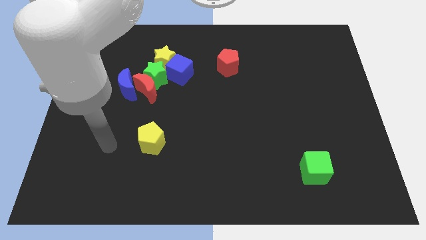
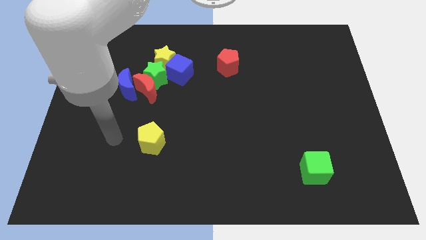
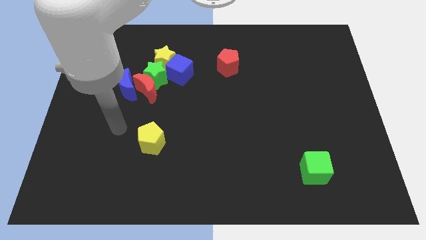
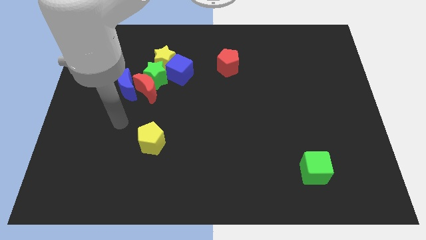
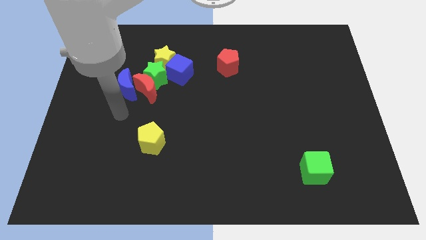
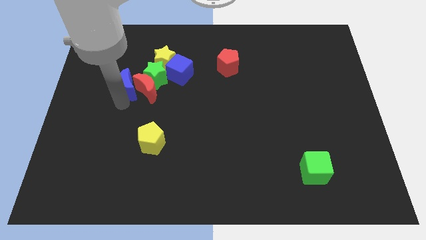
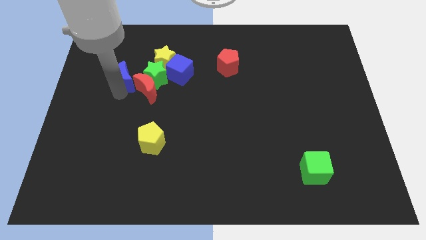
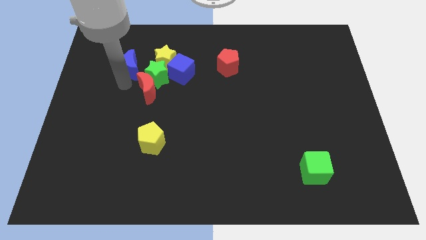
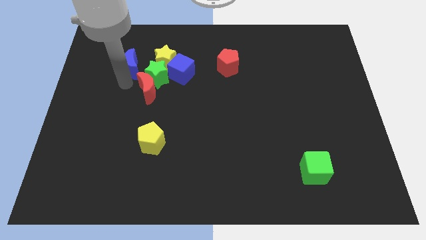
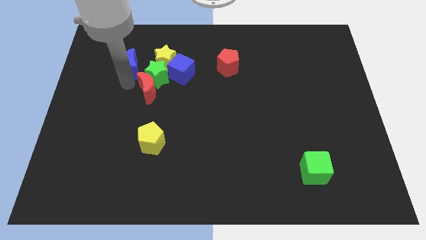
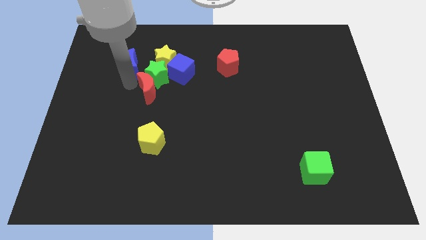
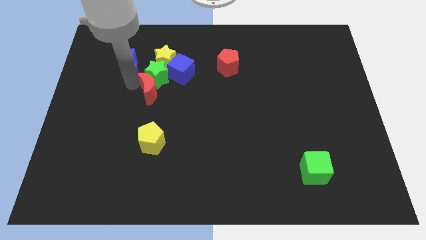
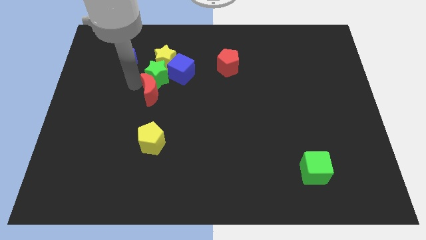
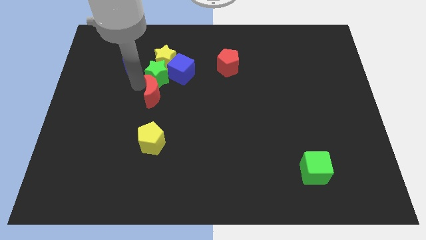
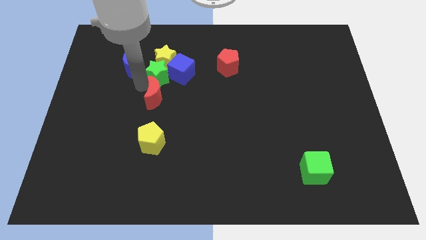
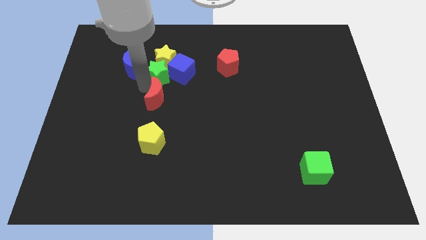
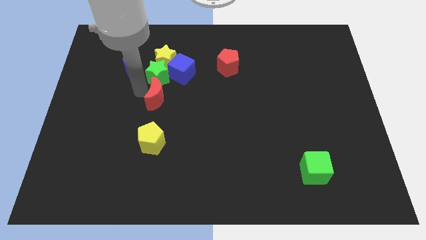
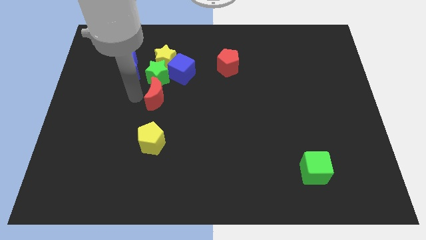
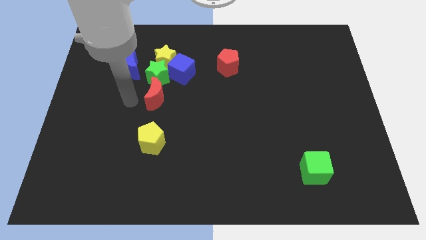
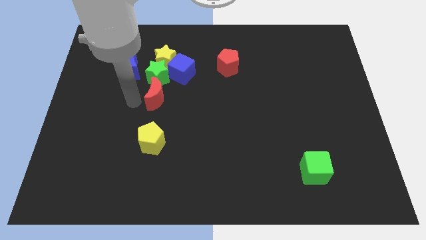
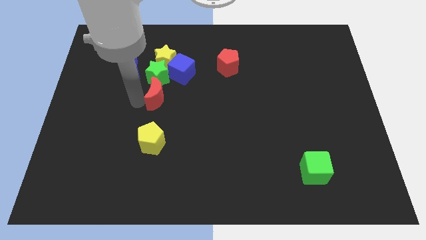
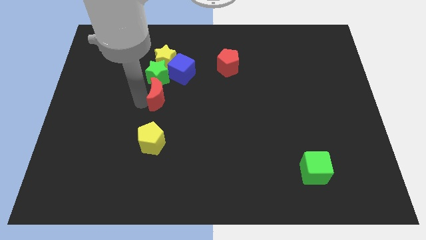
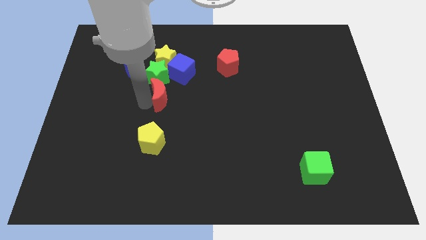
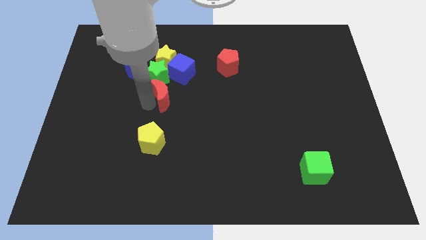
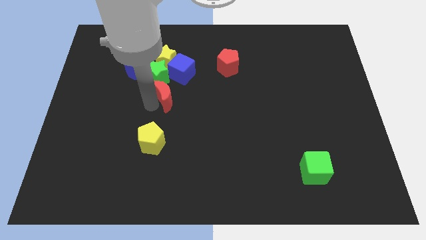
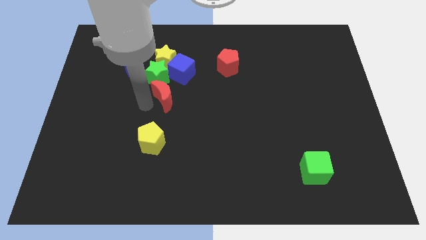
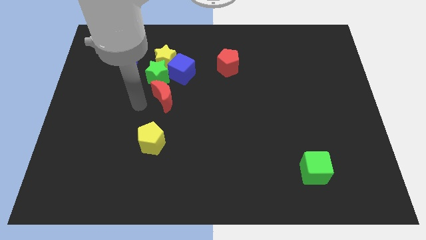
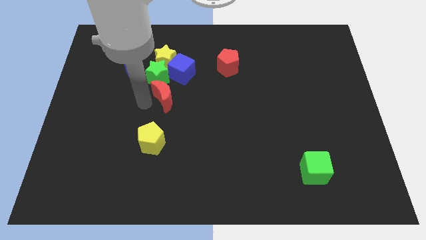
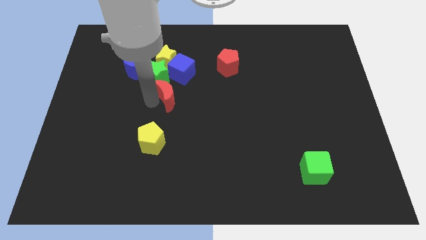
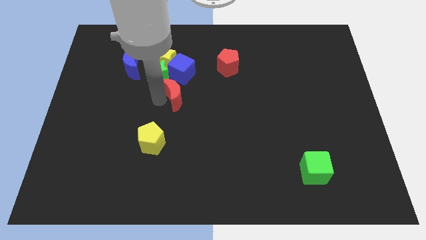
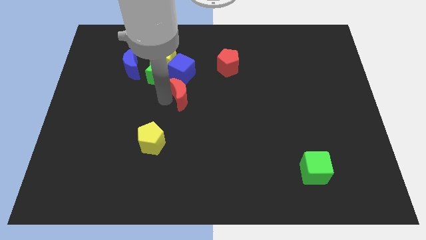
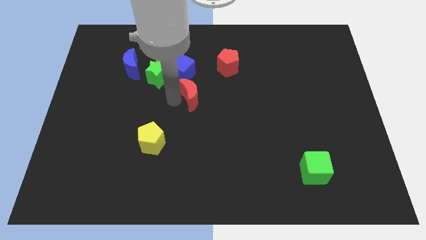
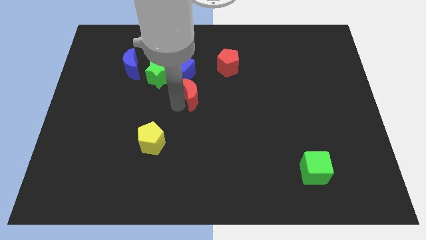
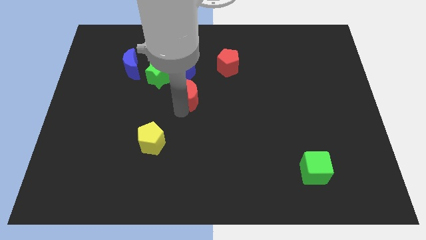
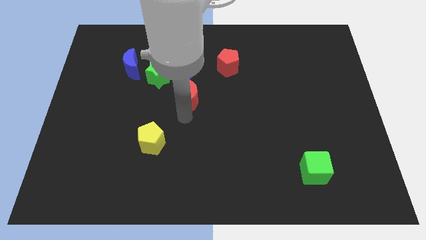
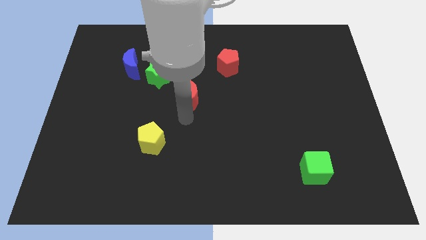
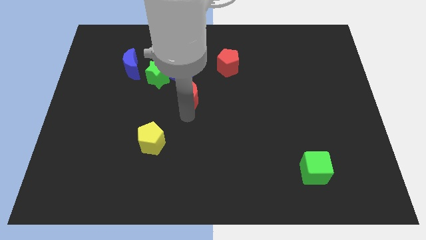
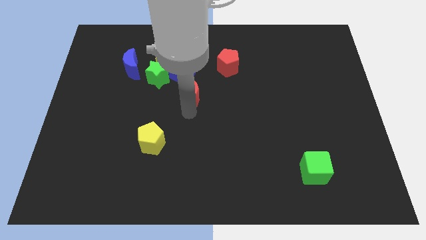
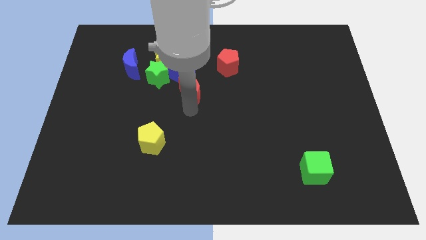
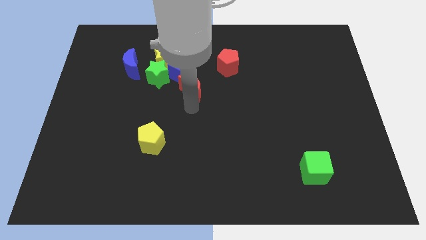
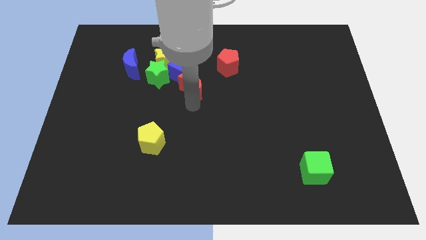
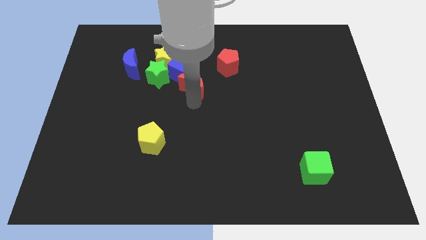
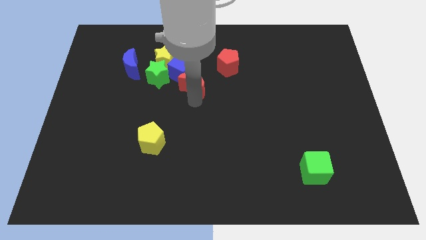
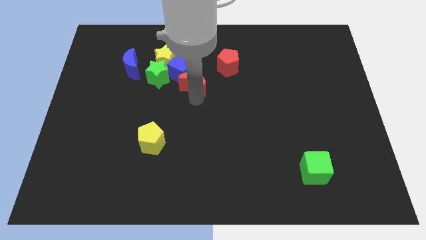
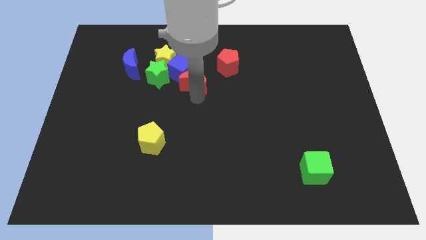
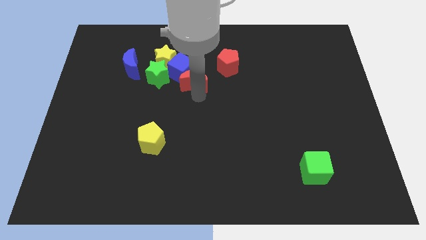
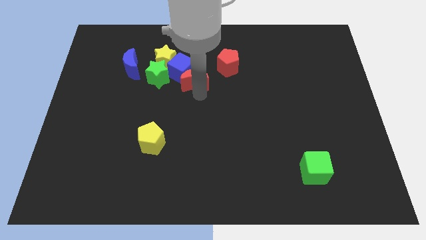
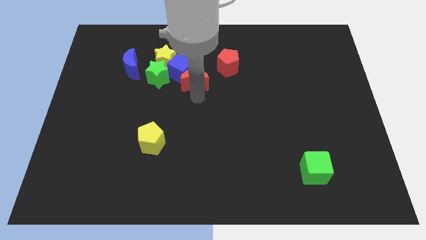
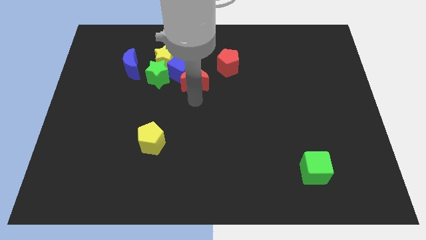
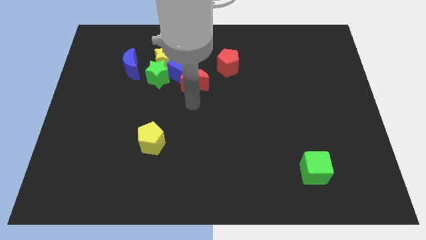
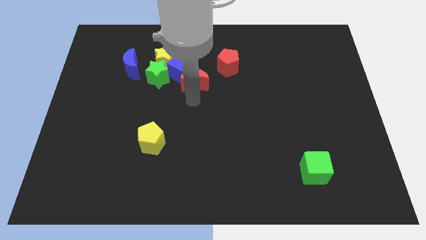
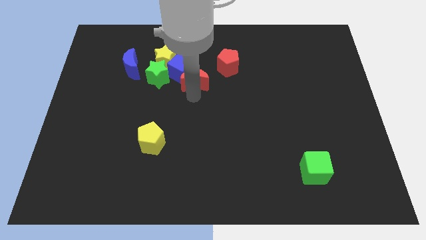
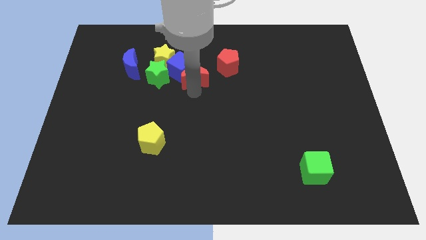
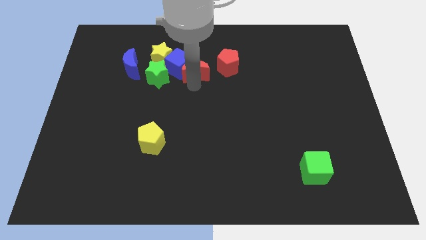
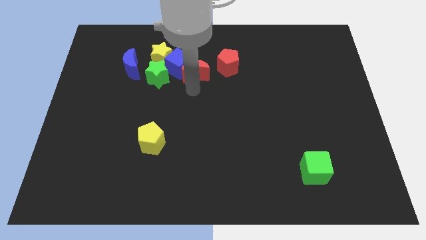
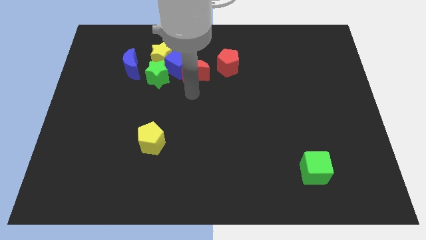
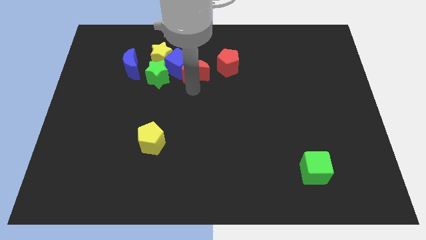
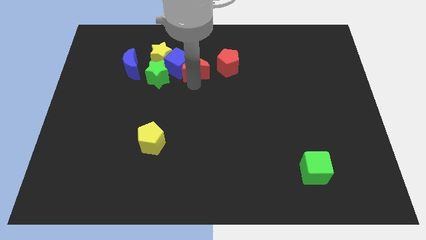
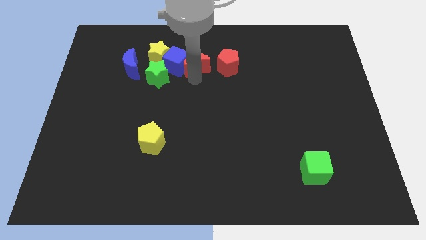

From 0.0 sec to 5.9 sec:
slide the red moon to the top right side of the blue cube

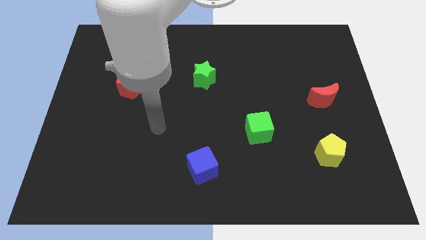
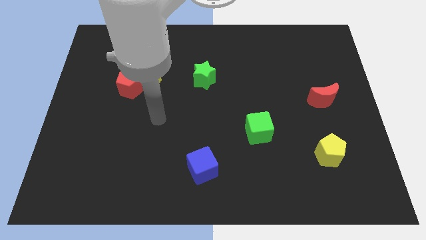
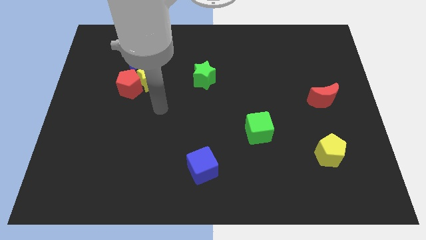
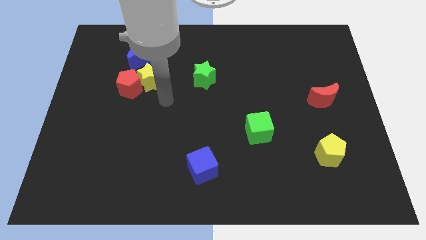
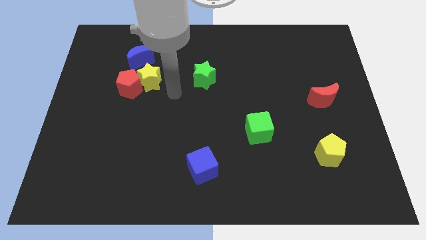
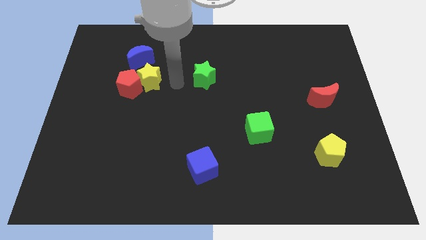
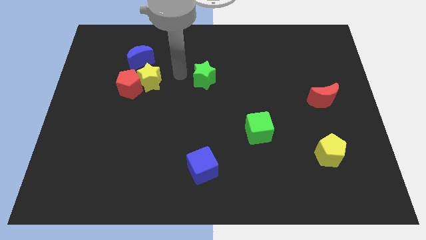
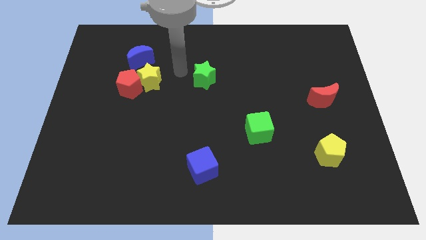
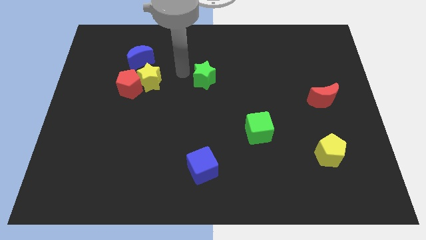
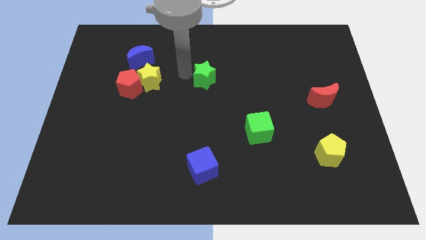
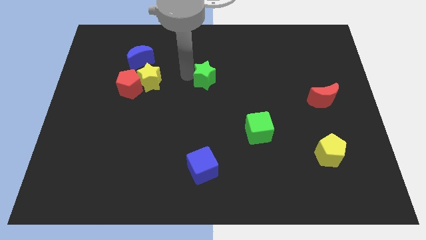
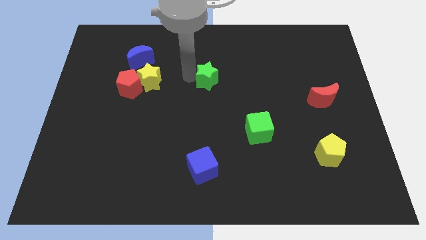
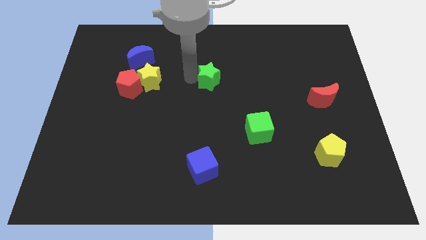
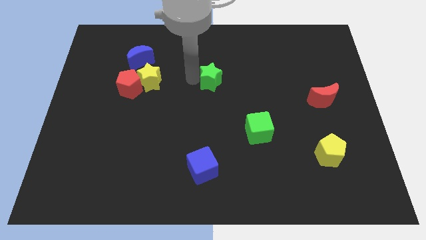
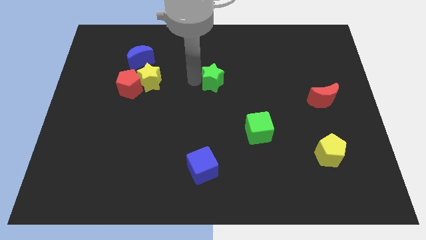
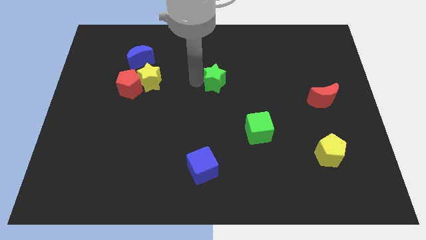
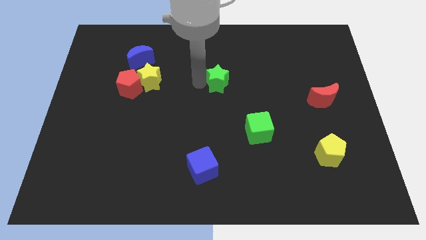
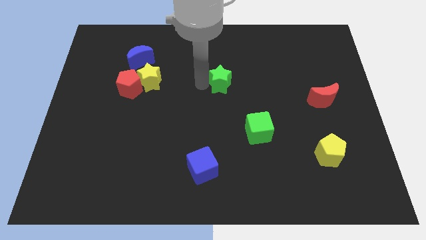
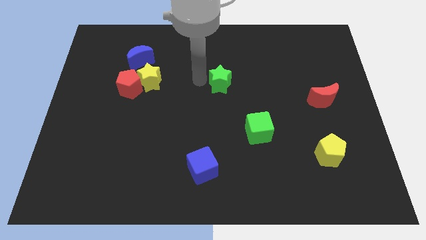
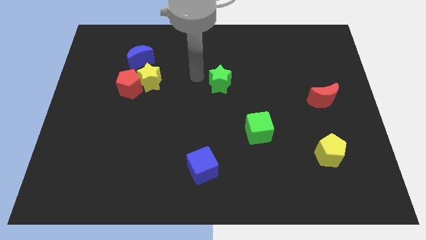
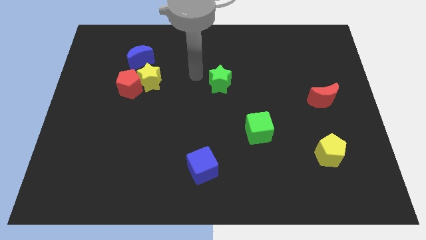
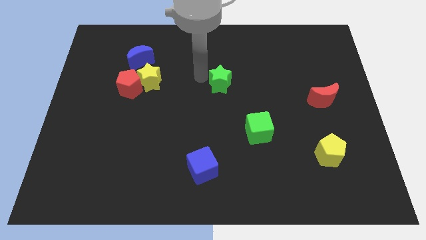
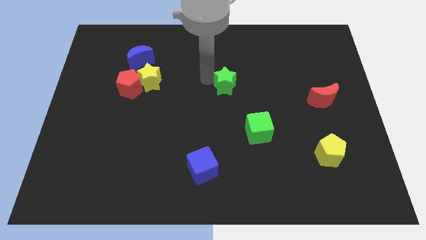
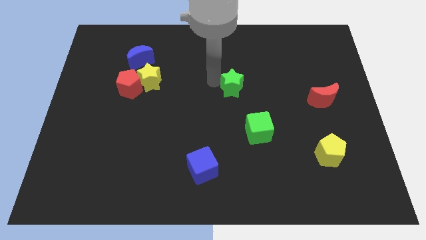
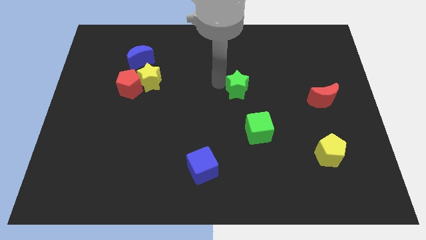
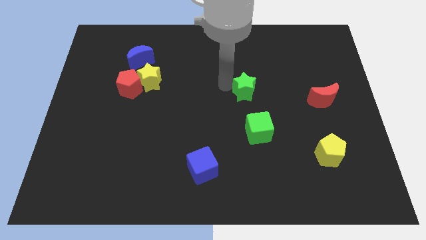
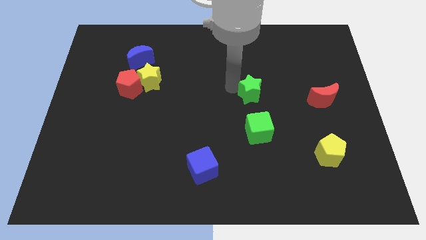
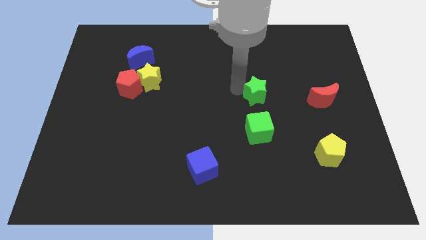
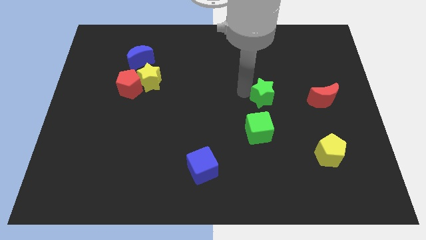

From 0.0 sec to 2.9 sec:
slide the green star just left of the red moon
